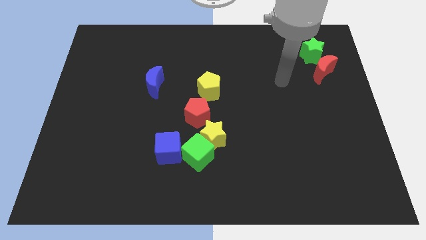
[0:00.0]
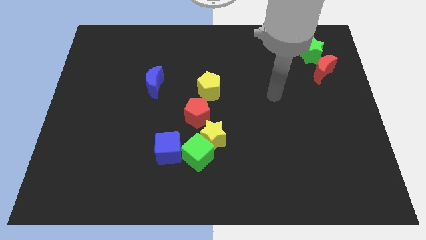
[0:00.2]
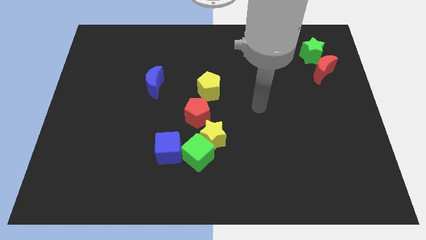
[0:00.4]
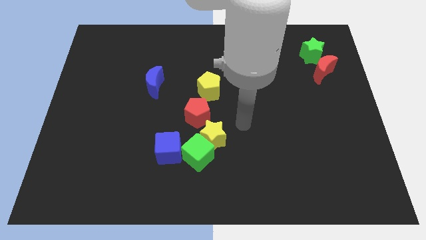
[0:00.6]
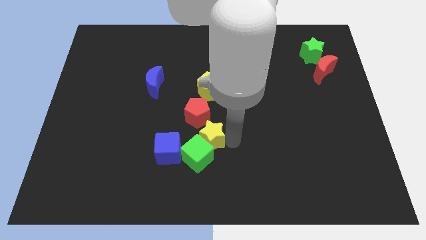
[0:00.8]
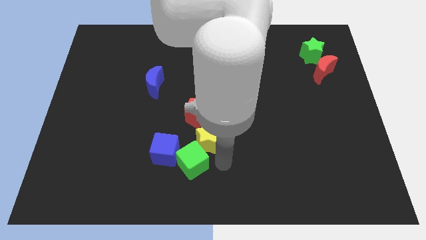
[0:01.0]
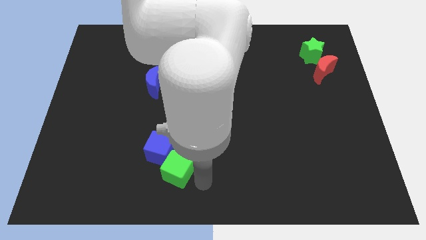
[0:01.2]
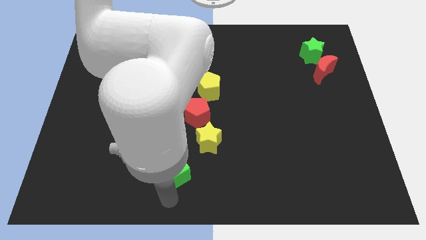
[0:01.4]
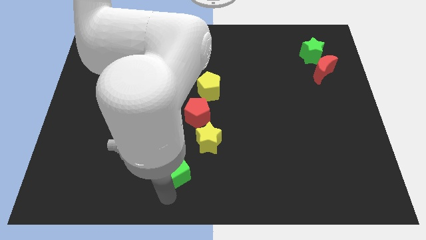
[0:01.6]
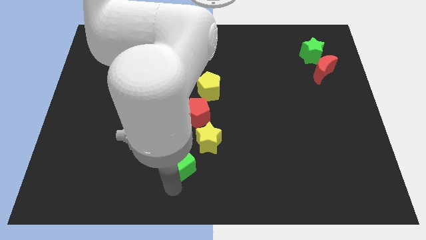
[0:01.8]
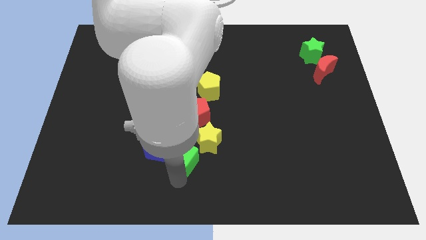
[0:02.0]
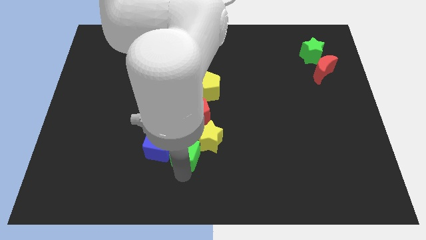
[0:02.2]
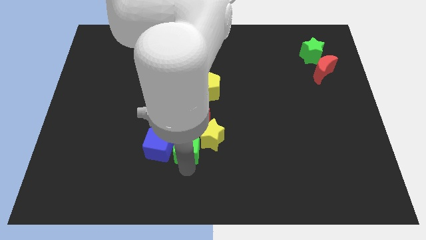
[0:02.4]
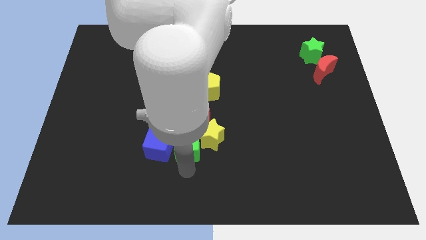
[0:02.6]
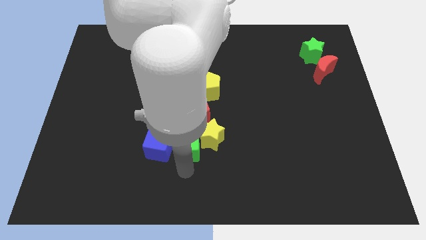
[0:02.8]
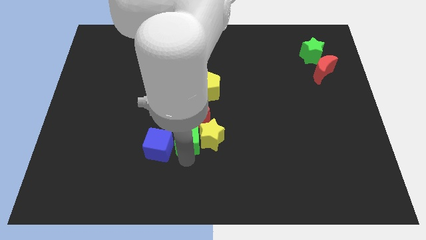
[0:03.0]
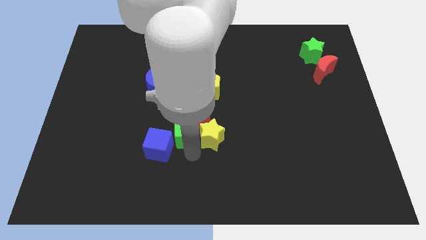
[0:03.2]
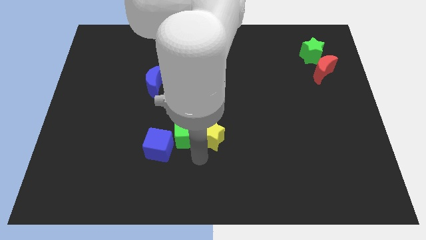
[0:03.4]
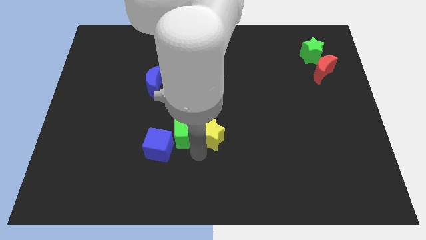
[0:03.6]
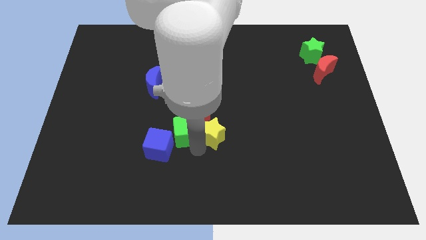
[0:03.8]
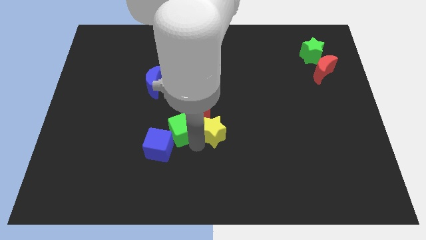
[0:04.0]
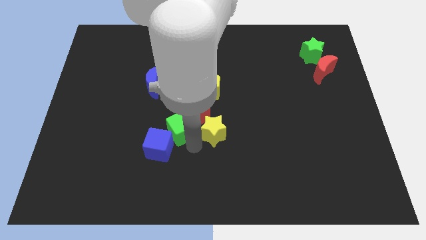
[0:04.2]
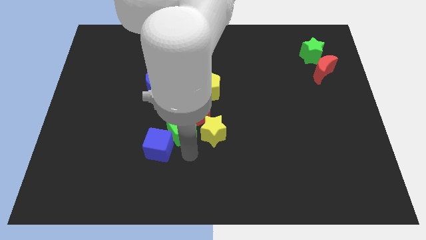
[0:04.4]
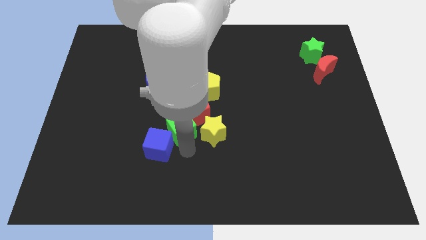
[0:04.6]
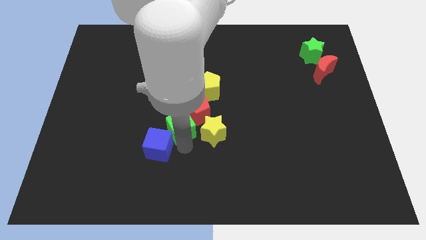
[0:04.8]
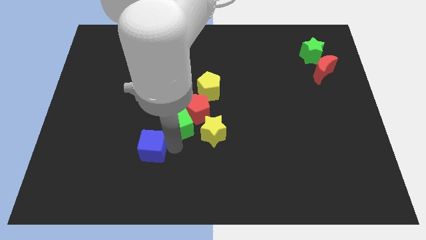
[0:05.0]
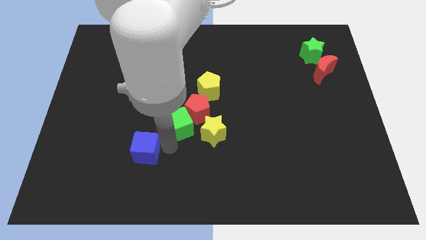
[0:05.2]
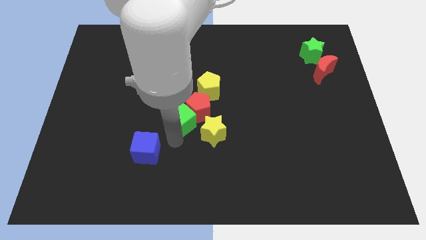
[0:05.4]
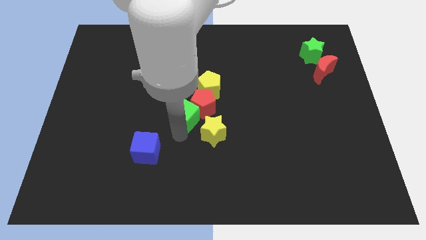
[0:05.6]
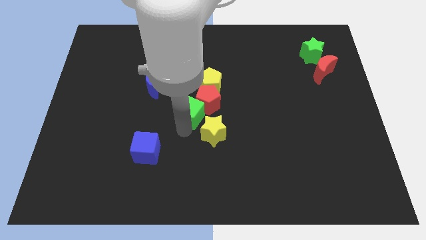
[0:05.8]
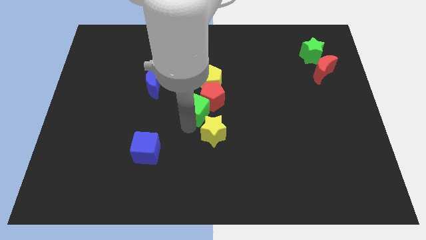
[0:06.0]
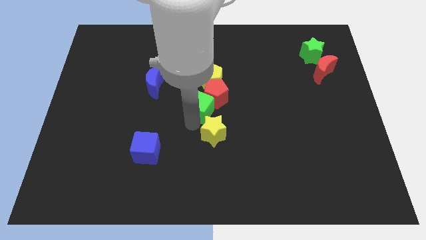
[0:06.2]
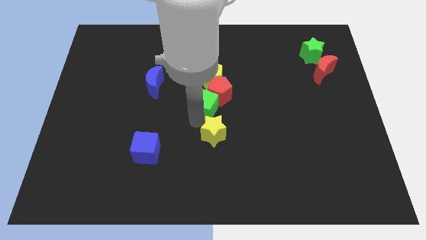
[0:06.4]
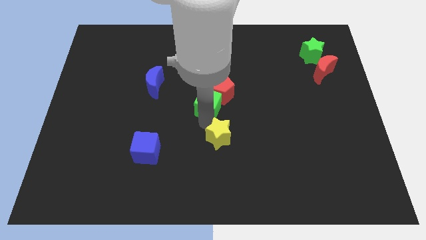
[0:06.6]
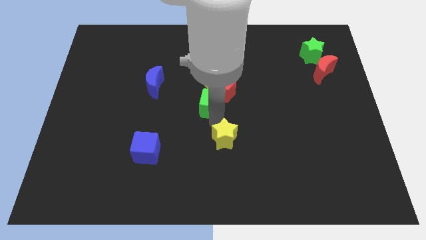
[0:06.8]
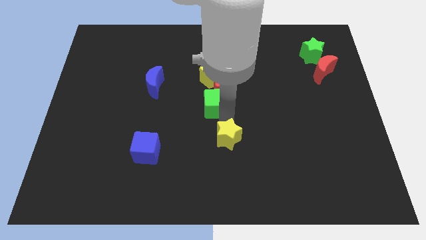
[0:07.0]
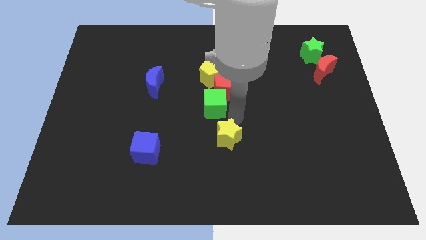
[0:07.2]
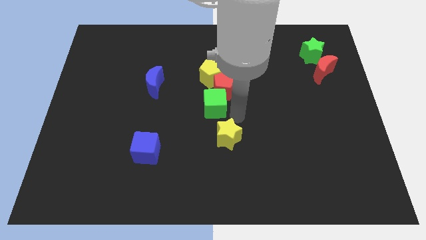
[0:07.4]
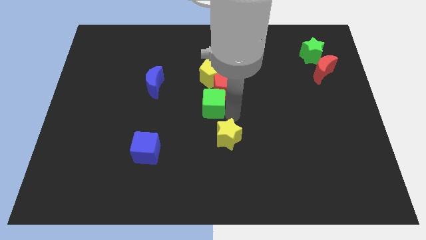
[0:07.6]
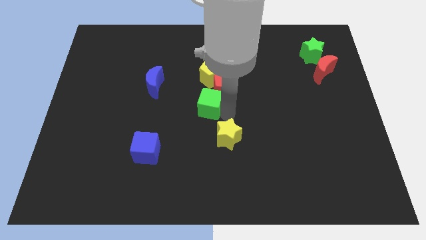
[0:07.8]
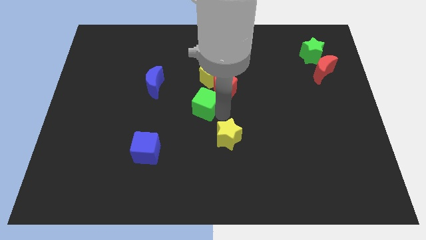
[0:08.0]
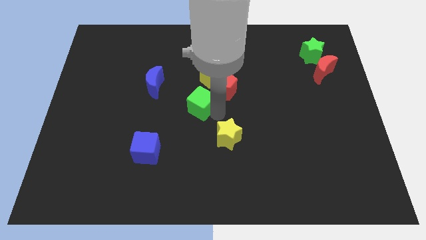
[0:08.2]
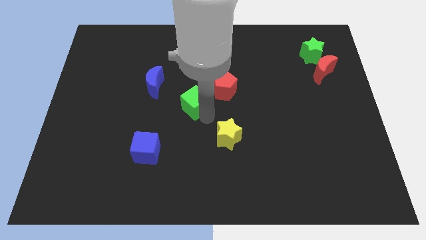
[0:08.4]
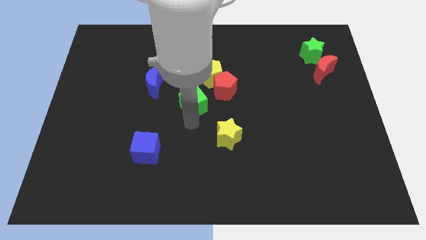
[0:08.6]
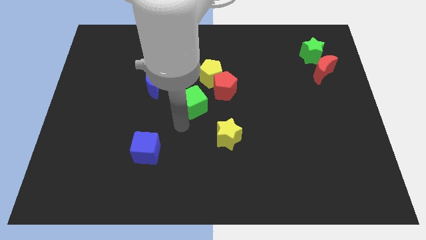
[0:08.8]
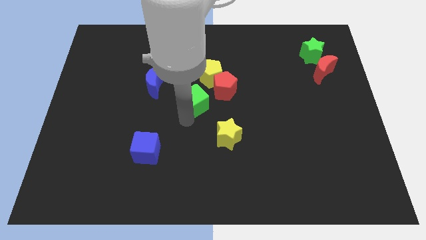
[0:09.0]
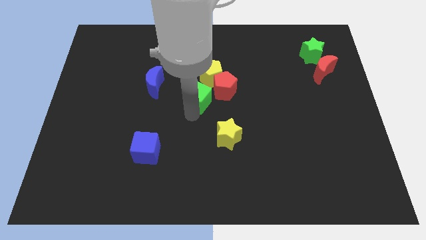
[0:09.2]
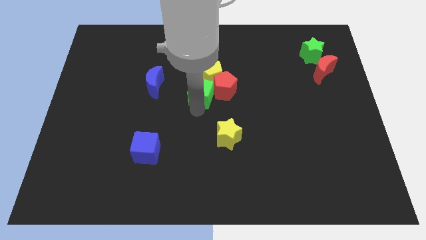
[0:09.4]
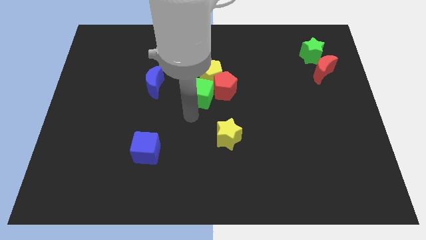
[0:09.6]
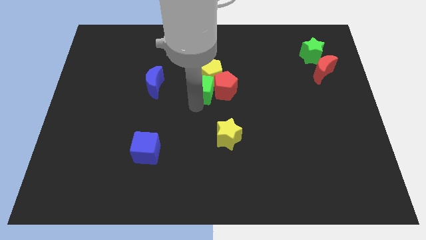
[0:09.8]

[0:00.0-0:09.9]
slide the green cube next to the yellow pentagon

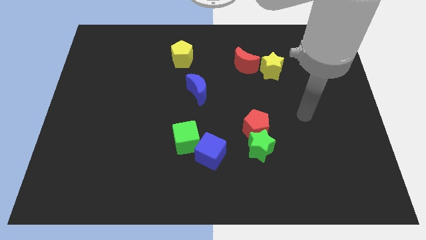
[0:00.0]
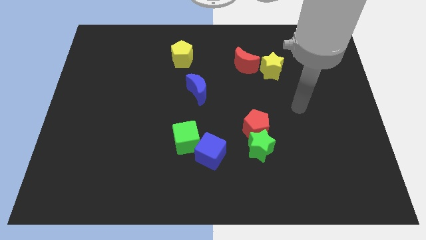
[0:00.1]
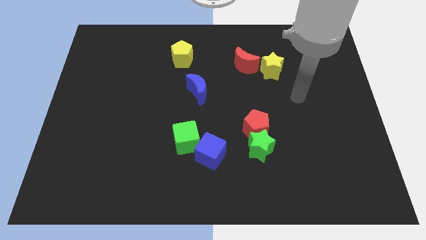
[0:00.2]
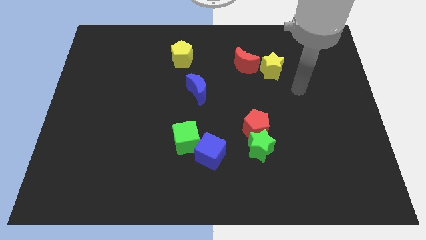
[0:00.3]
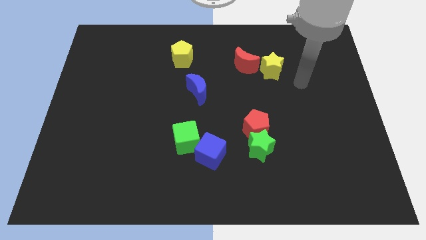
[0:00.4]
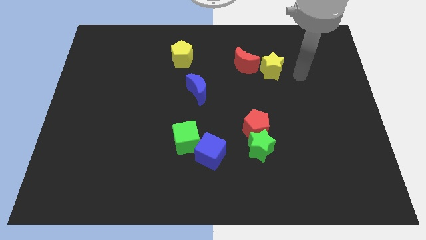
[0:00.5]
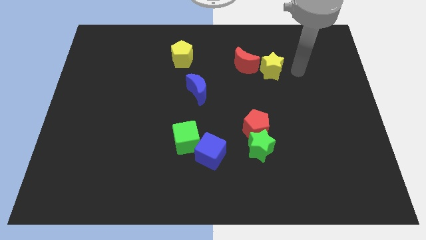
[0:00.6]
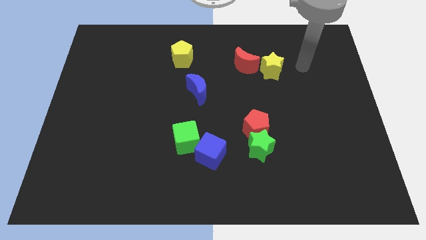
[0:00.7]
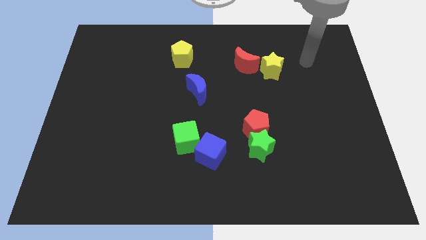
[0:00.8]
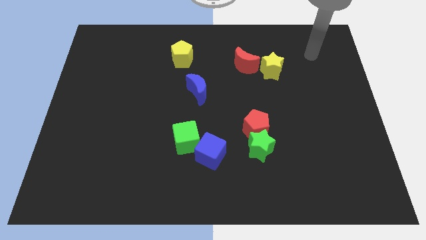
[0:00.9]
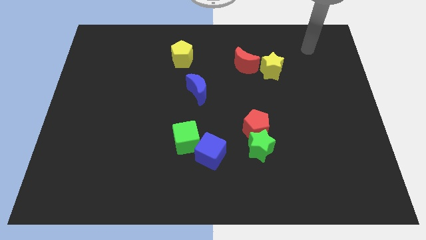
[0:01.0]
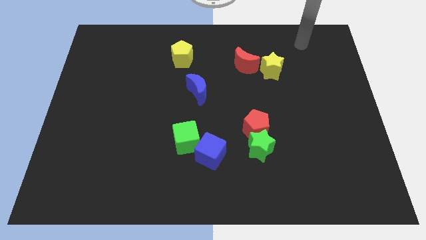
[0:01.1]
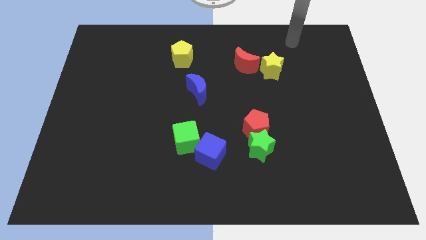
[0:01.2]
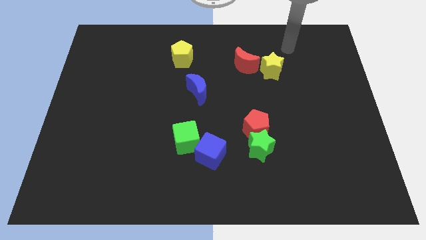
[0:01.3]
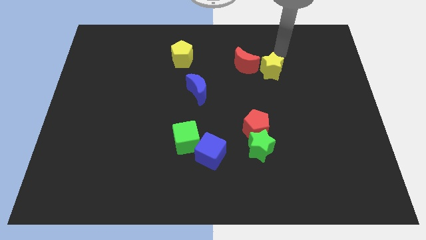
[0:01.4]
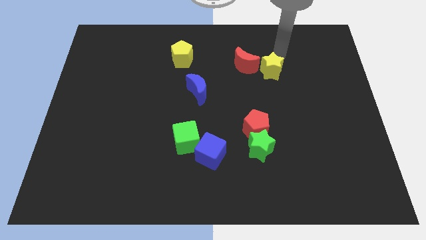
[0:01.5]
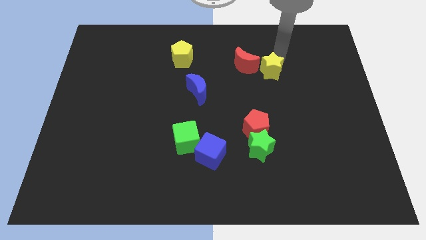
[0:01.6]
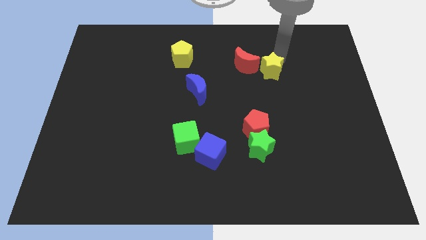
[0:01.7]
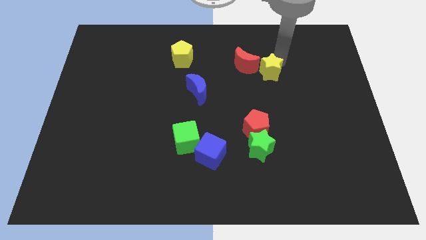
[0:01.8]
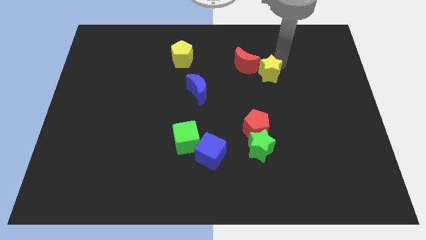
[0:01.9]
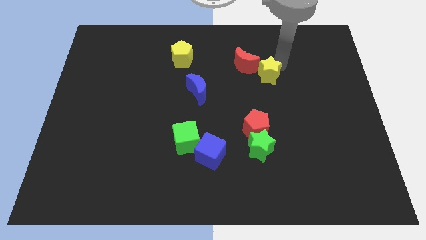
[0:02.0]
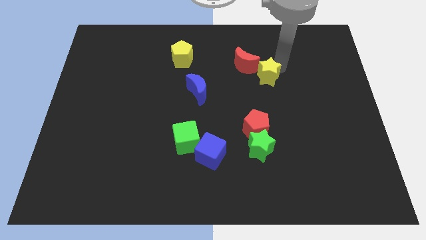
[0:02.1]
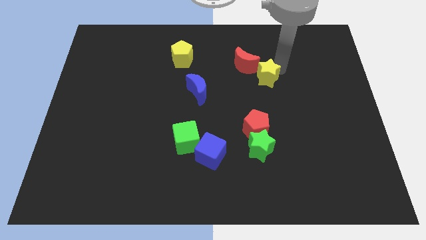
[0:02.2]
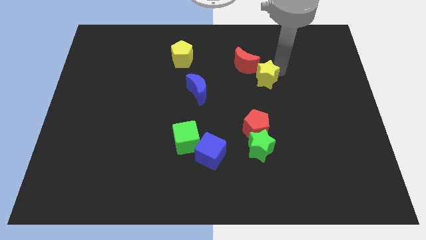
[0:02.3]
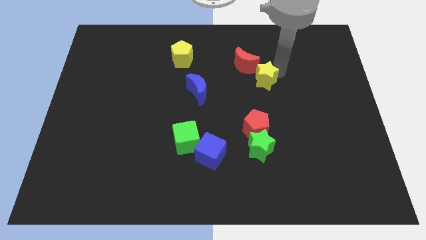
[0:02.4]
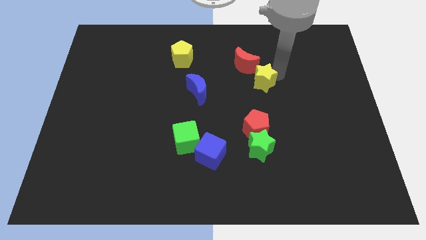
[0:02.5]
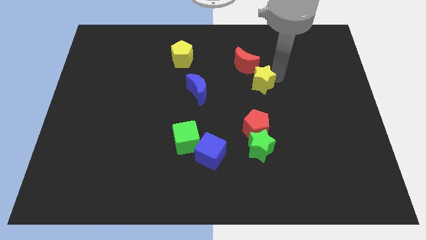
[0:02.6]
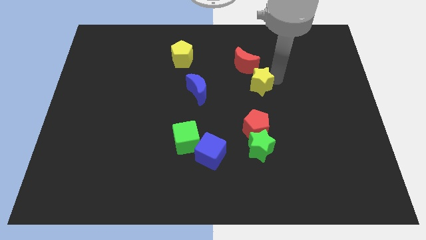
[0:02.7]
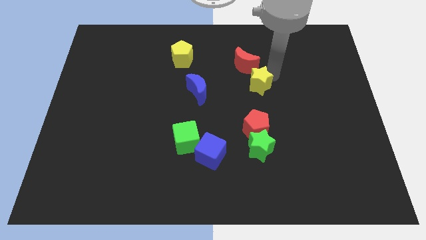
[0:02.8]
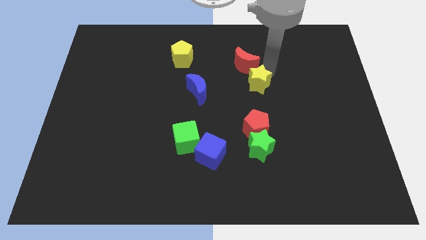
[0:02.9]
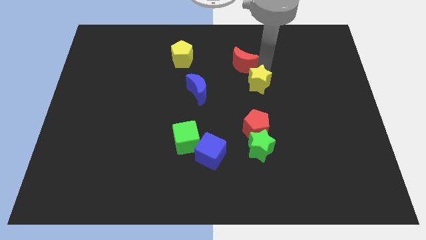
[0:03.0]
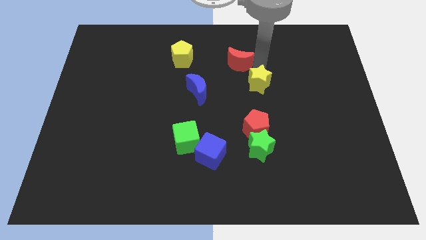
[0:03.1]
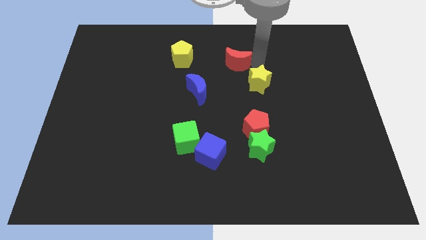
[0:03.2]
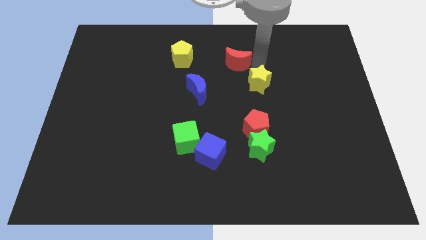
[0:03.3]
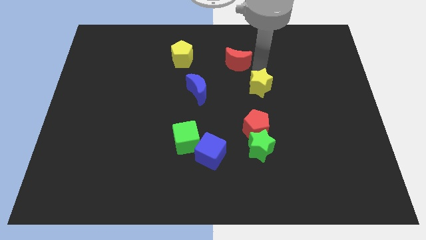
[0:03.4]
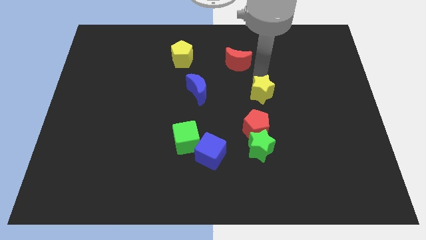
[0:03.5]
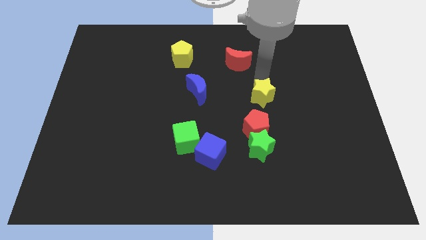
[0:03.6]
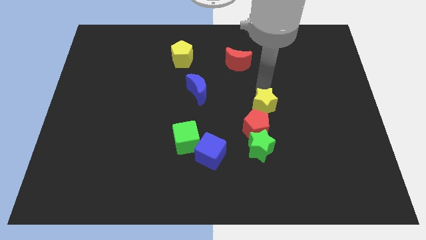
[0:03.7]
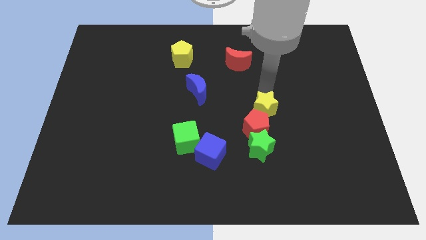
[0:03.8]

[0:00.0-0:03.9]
push the yellow star to the red pentagon
